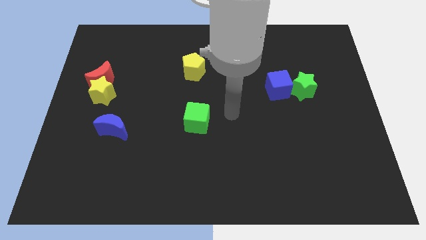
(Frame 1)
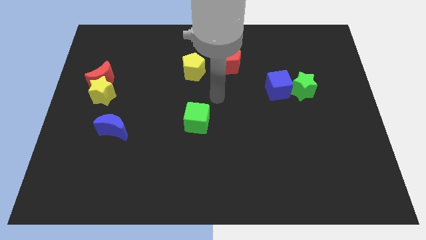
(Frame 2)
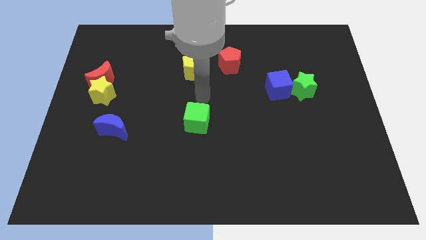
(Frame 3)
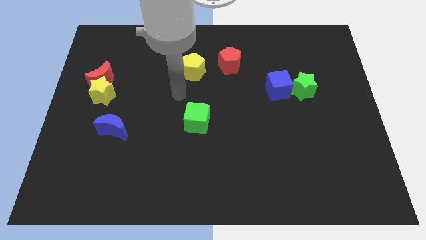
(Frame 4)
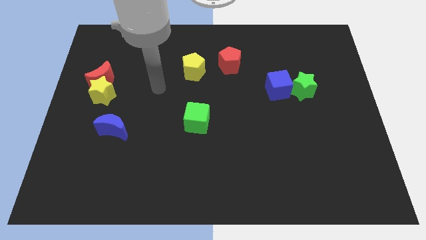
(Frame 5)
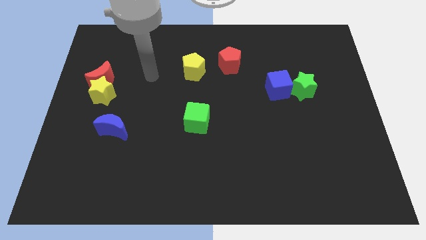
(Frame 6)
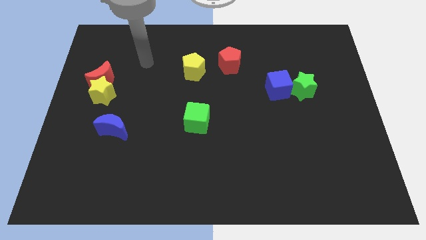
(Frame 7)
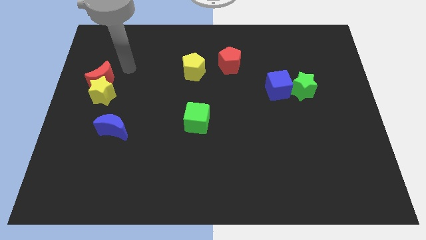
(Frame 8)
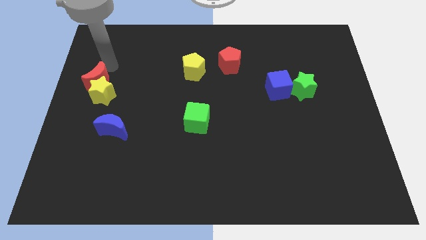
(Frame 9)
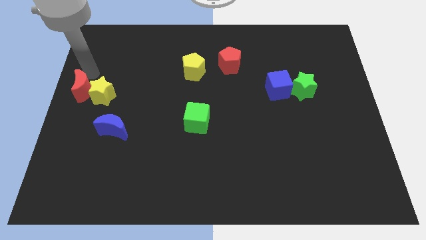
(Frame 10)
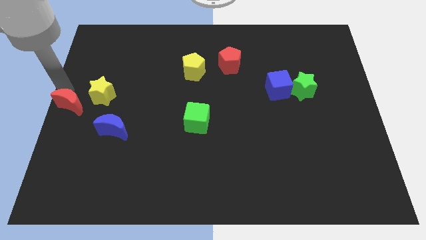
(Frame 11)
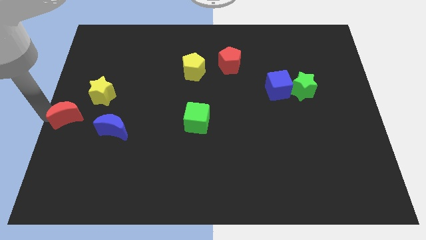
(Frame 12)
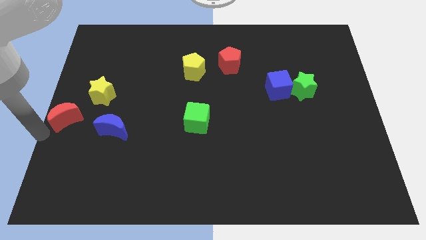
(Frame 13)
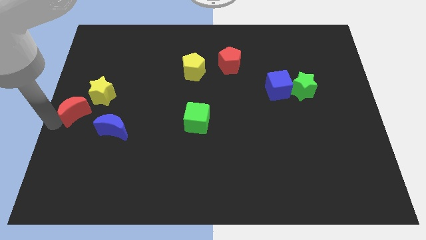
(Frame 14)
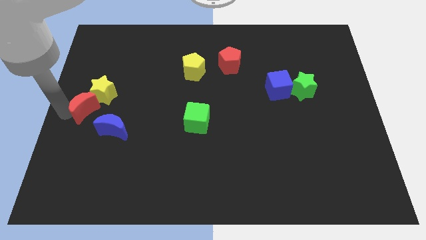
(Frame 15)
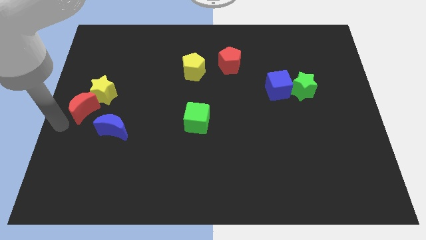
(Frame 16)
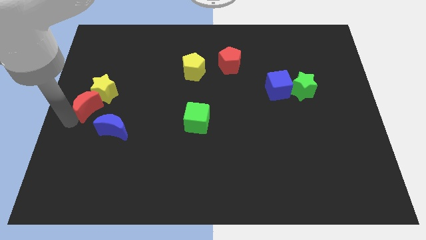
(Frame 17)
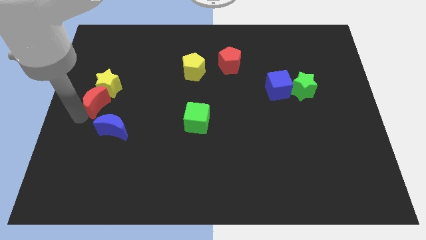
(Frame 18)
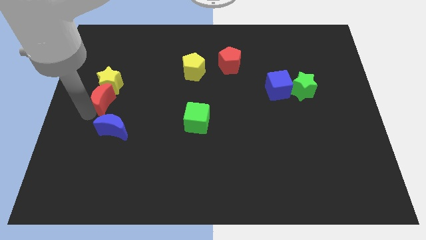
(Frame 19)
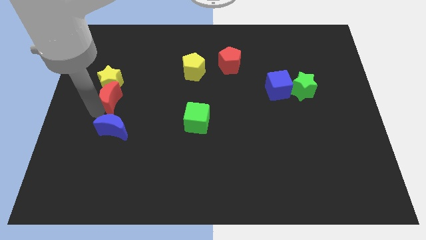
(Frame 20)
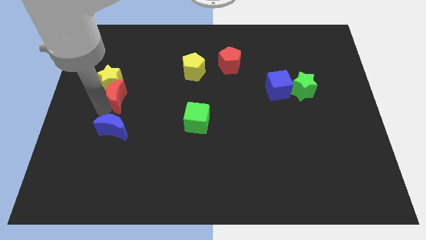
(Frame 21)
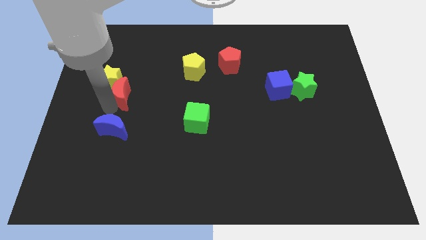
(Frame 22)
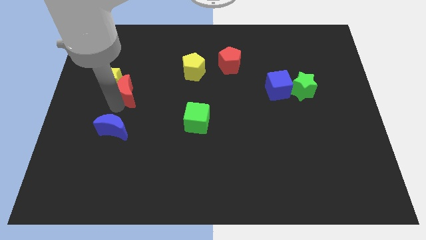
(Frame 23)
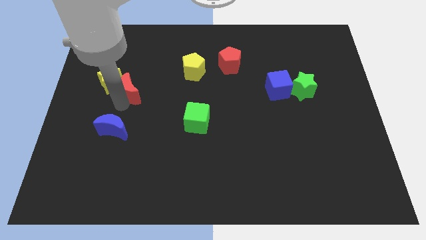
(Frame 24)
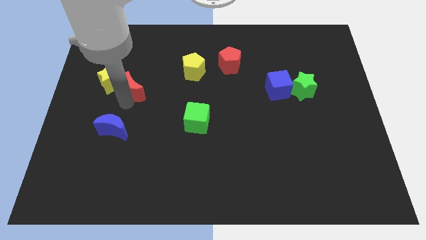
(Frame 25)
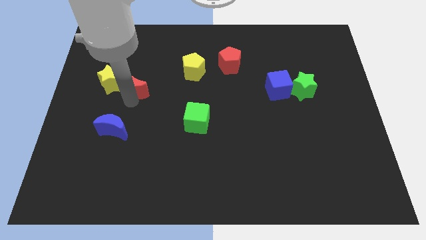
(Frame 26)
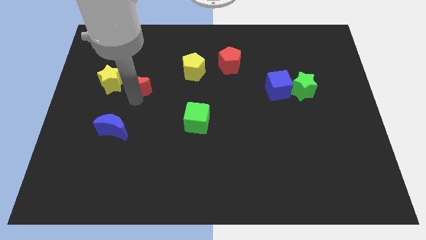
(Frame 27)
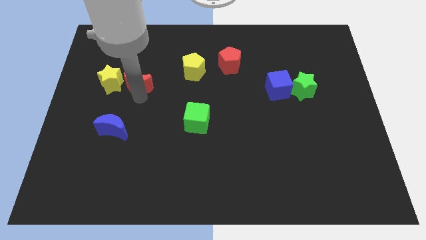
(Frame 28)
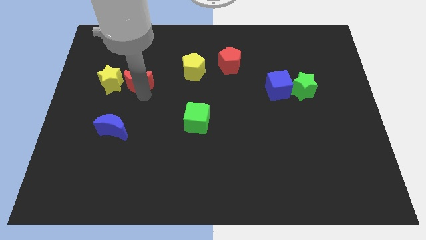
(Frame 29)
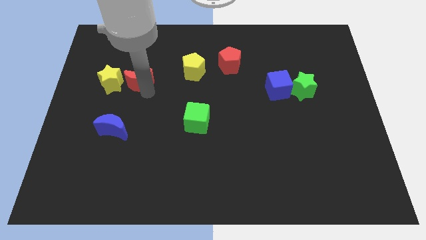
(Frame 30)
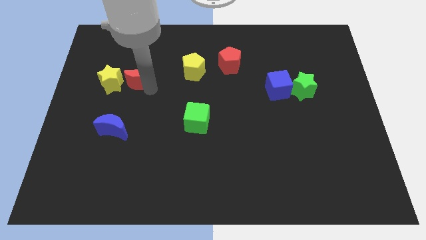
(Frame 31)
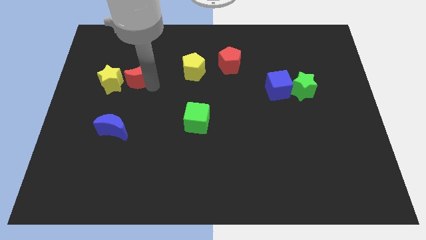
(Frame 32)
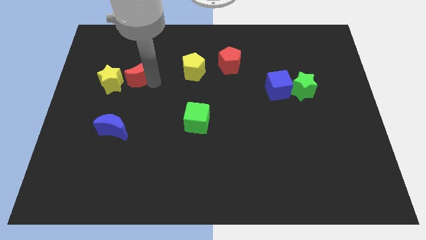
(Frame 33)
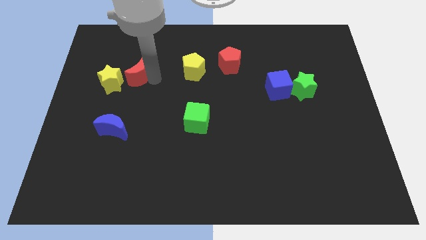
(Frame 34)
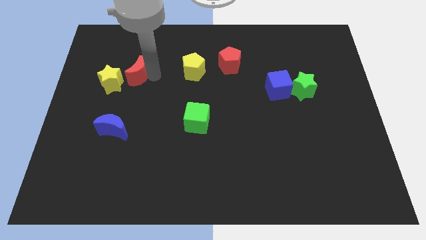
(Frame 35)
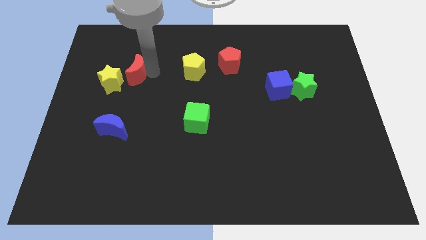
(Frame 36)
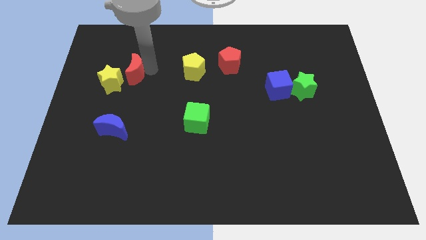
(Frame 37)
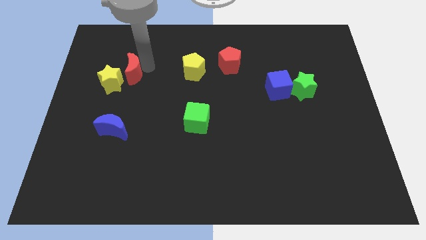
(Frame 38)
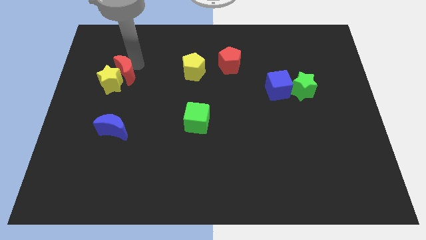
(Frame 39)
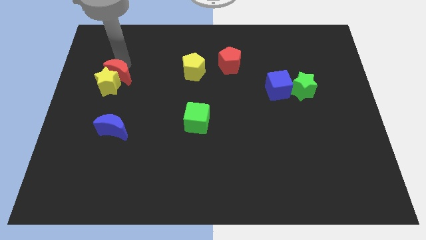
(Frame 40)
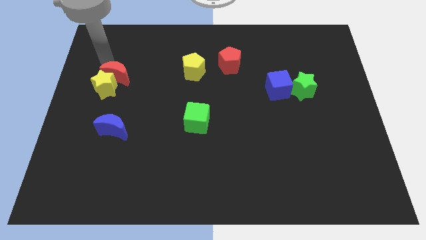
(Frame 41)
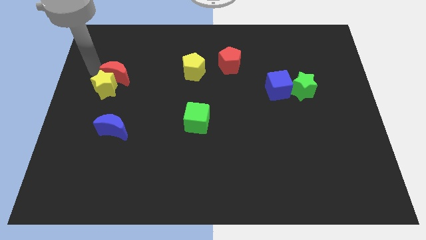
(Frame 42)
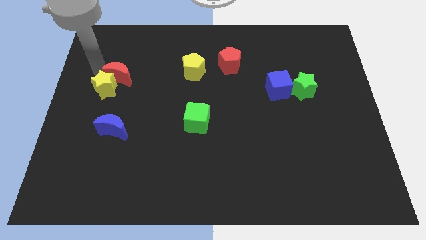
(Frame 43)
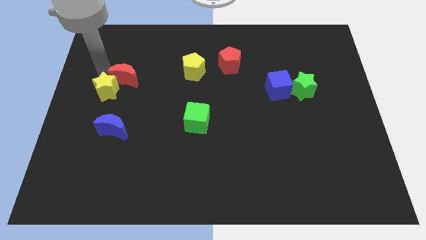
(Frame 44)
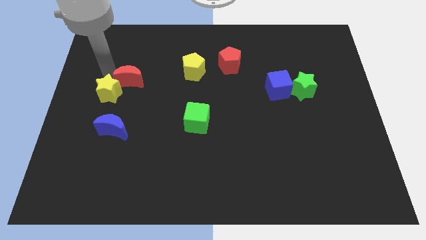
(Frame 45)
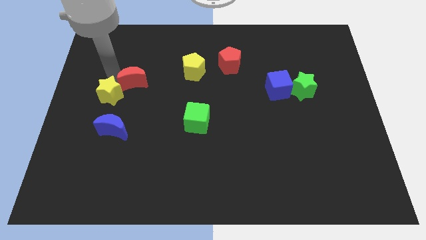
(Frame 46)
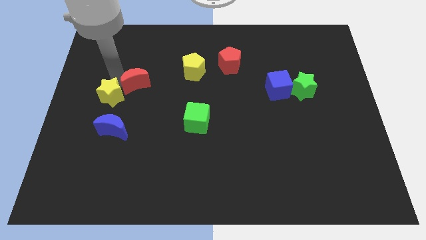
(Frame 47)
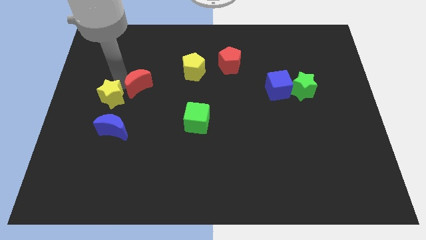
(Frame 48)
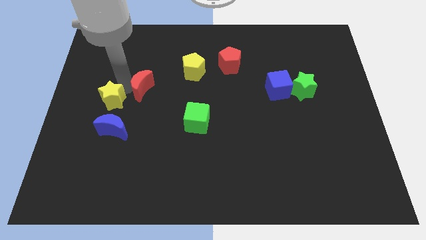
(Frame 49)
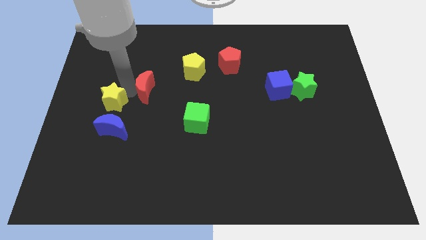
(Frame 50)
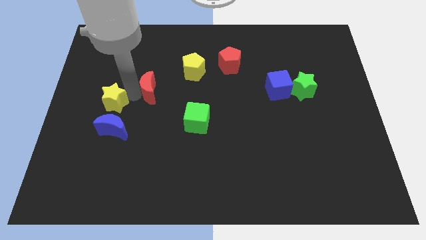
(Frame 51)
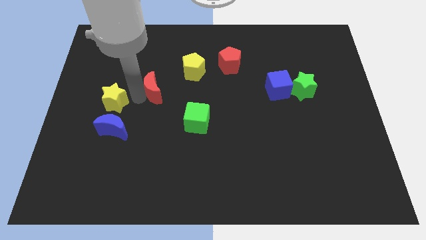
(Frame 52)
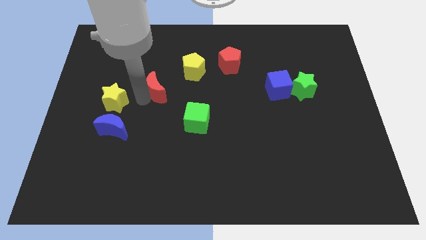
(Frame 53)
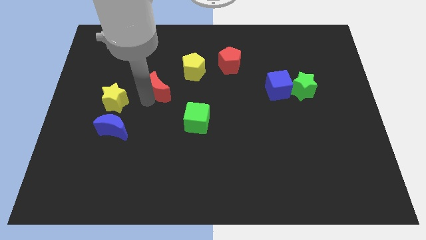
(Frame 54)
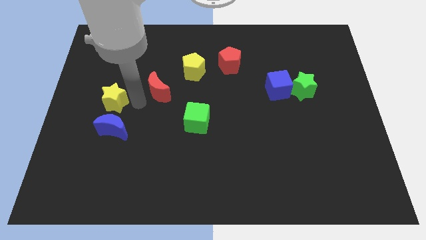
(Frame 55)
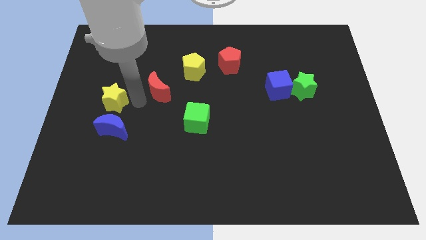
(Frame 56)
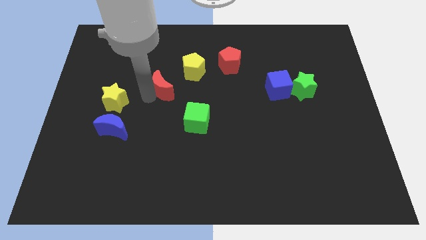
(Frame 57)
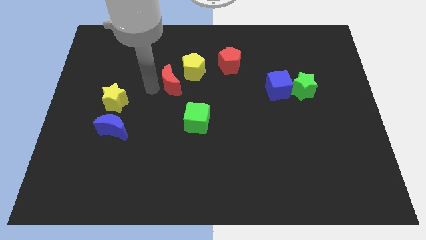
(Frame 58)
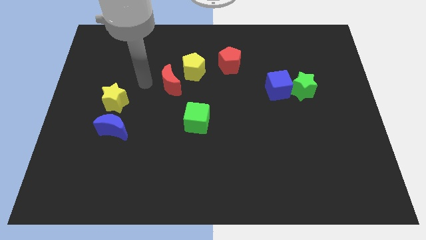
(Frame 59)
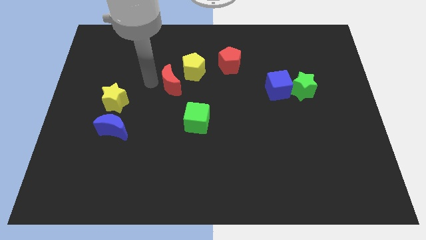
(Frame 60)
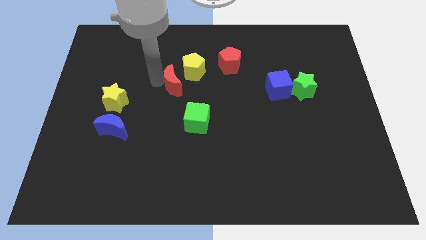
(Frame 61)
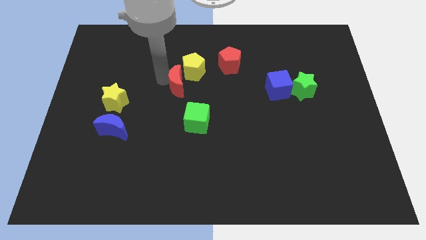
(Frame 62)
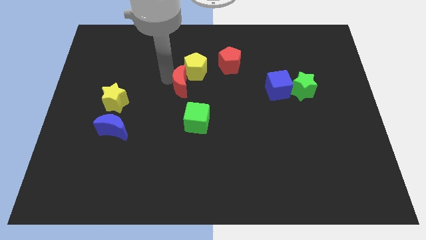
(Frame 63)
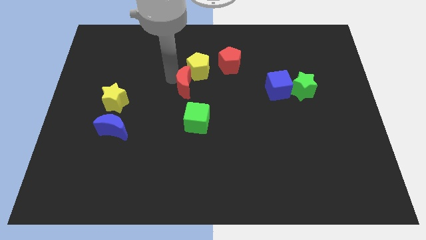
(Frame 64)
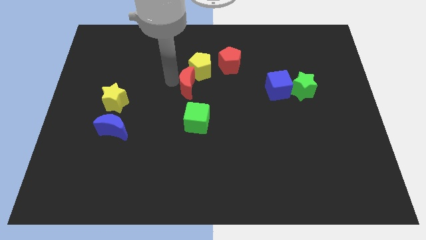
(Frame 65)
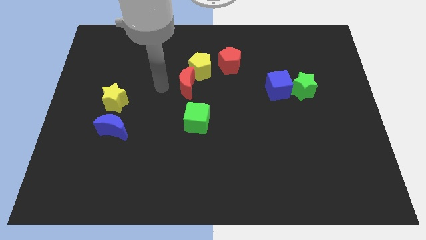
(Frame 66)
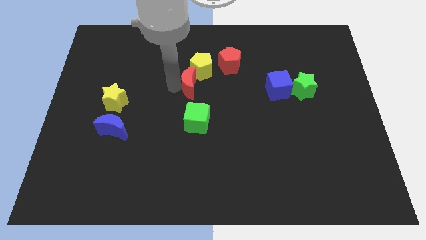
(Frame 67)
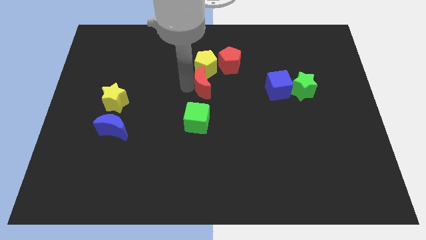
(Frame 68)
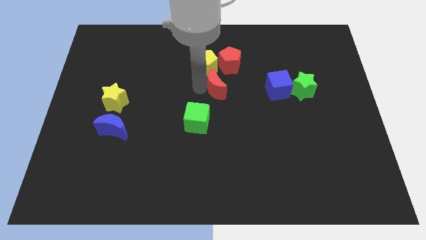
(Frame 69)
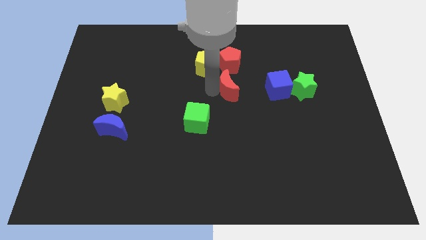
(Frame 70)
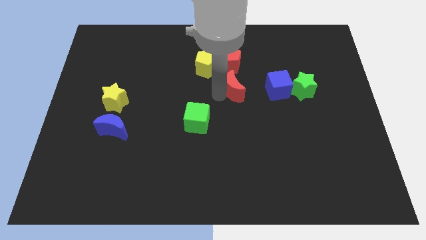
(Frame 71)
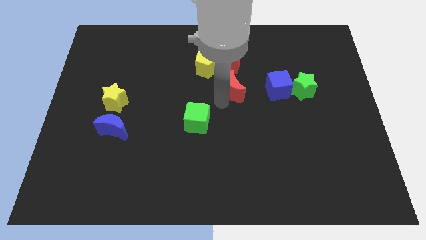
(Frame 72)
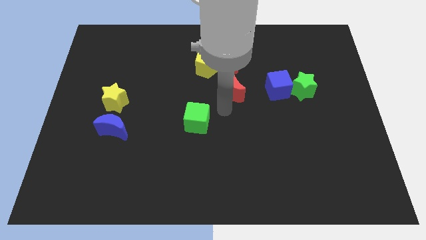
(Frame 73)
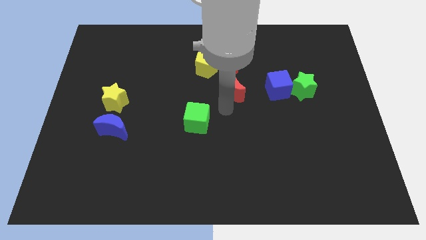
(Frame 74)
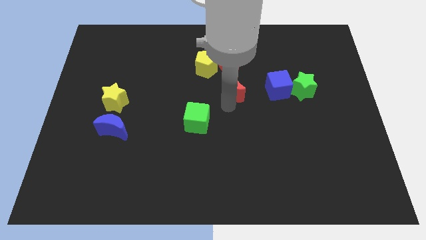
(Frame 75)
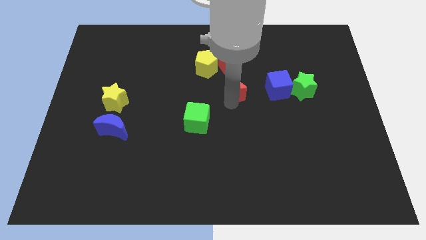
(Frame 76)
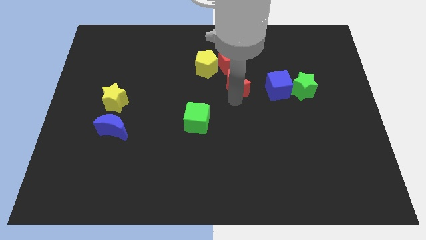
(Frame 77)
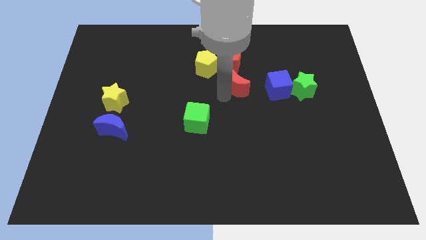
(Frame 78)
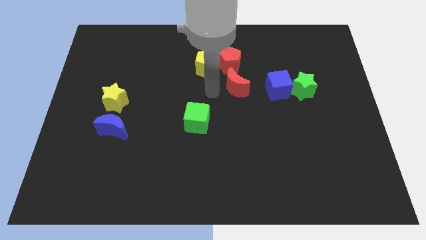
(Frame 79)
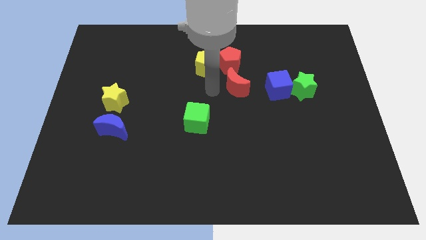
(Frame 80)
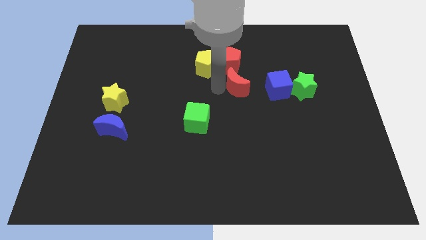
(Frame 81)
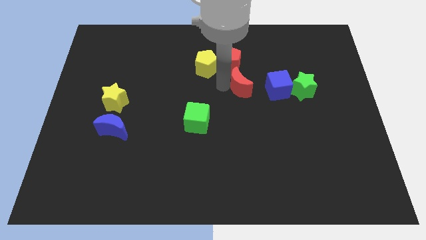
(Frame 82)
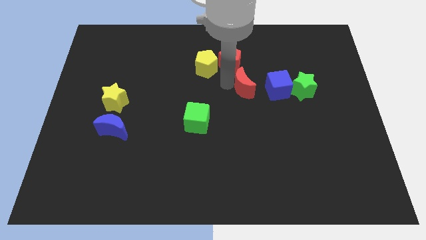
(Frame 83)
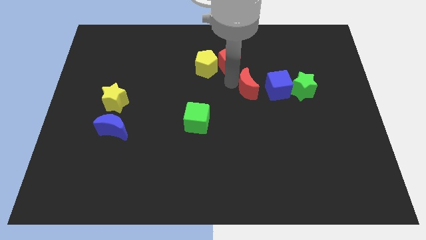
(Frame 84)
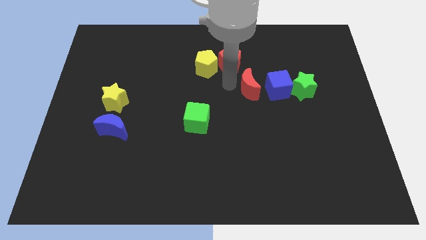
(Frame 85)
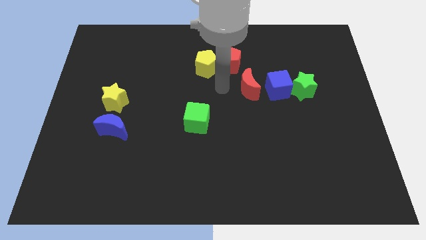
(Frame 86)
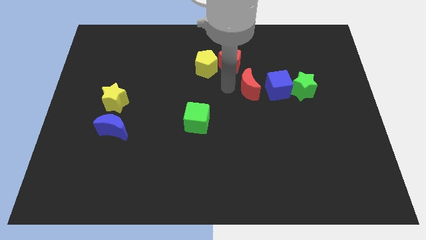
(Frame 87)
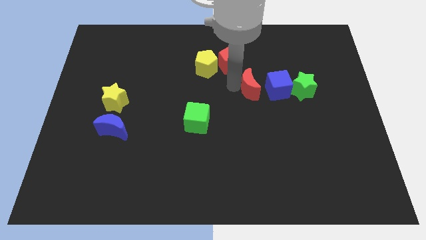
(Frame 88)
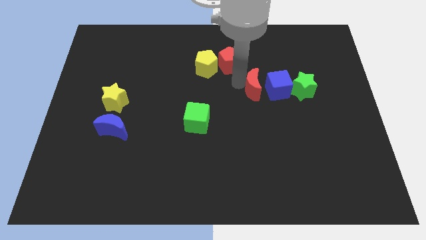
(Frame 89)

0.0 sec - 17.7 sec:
put the red moon towards the blue cube
